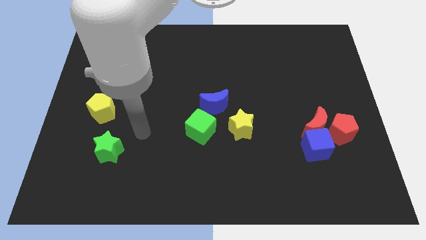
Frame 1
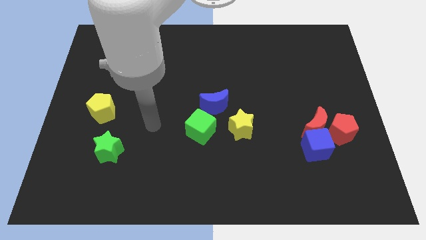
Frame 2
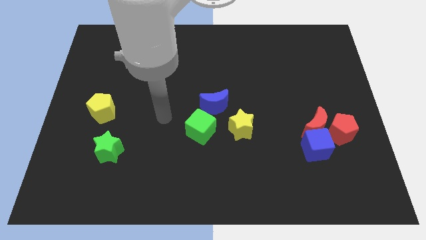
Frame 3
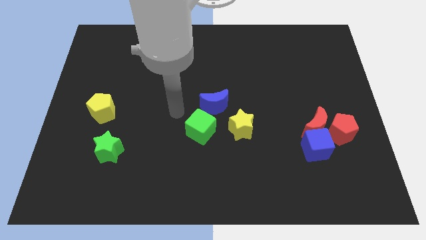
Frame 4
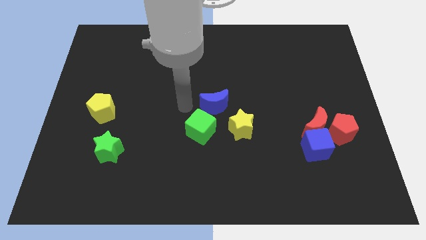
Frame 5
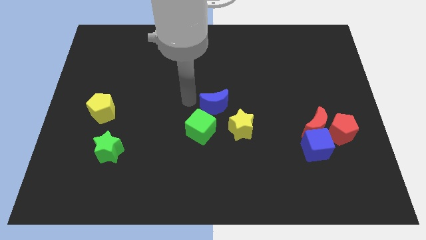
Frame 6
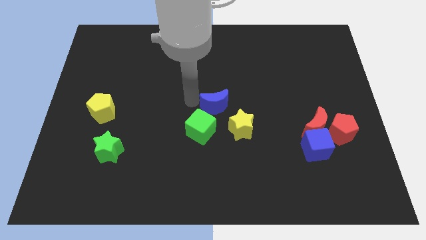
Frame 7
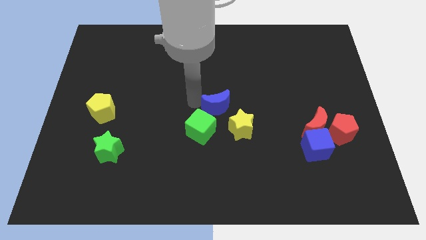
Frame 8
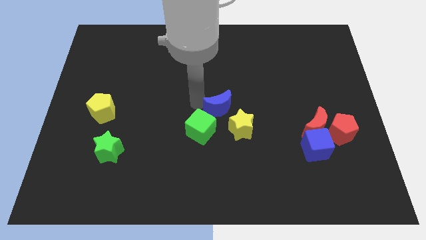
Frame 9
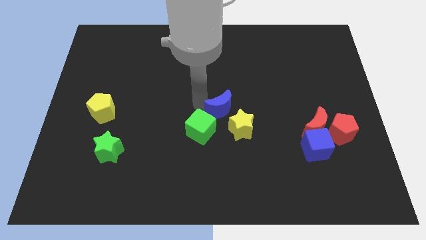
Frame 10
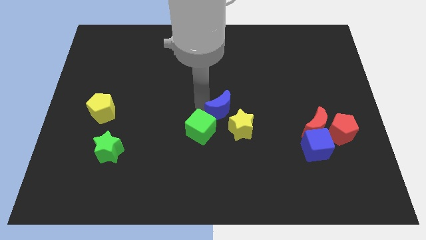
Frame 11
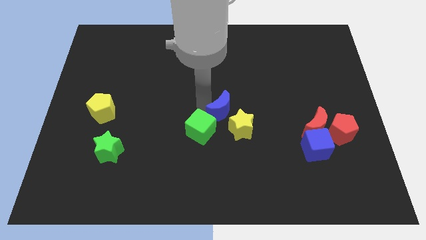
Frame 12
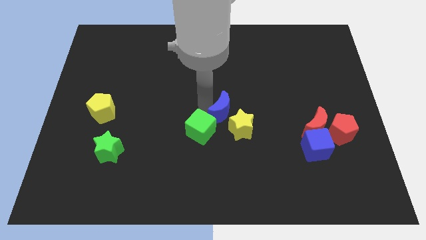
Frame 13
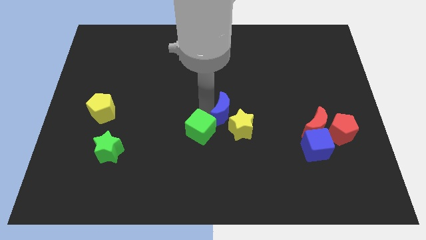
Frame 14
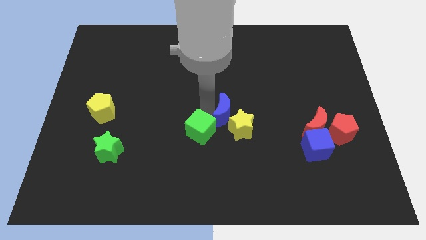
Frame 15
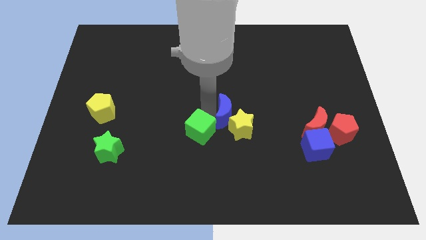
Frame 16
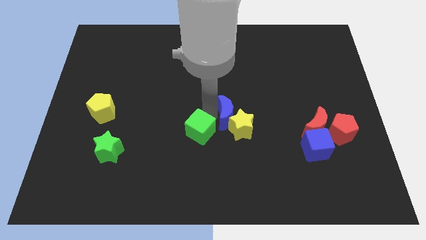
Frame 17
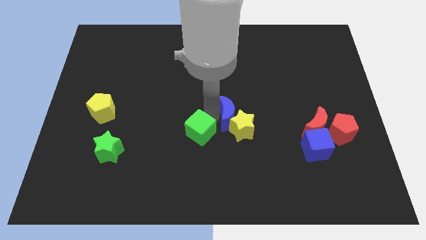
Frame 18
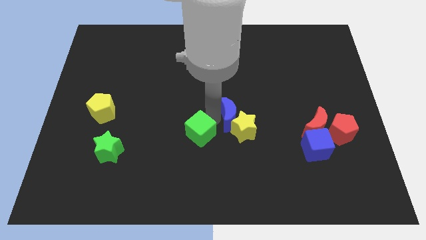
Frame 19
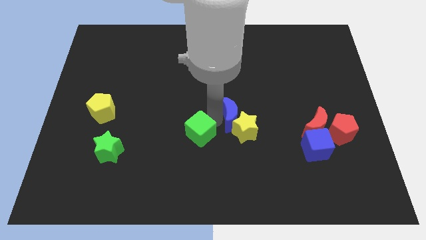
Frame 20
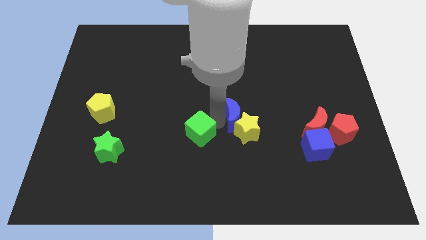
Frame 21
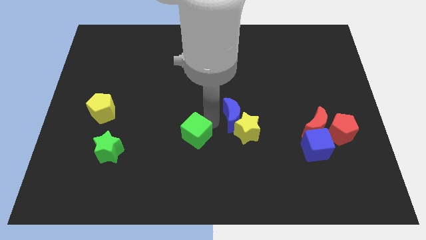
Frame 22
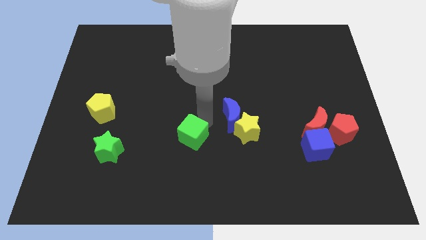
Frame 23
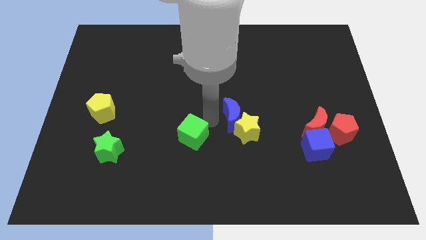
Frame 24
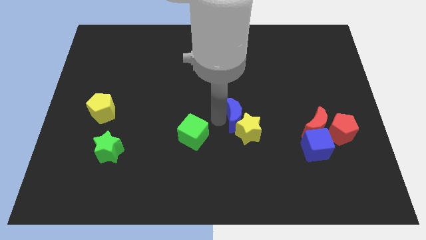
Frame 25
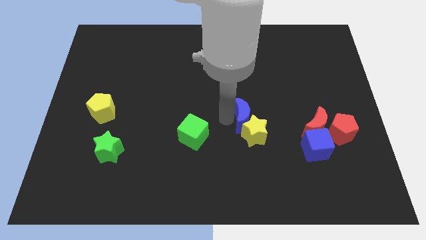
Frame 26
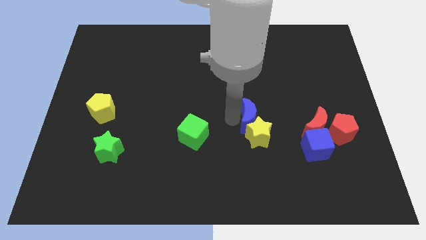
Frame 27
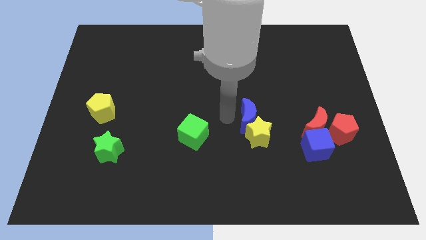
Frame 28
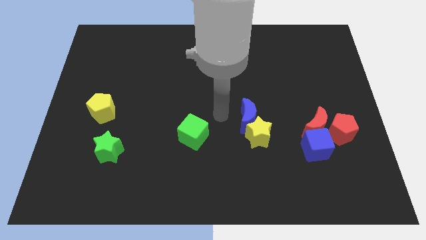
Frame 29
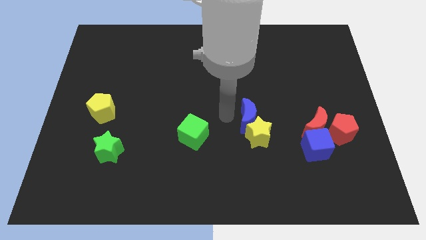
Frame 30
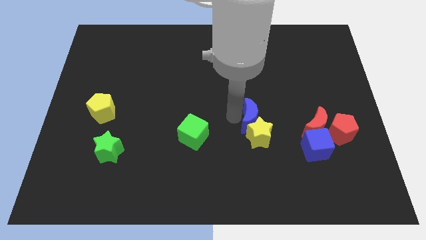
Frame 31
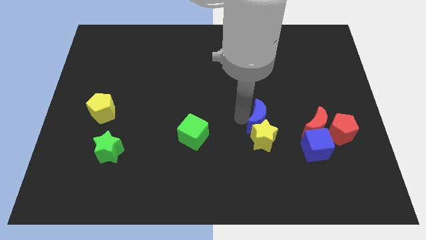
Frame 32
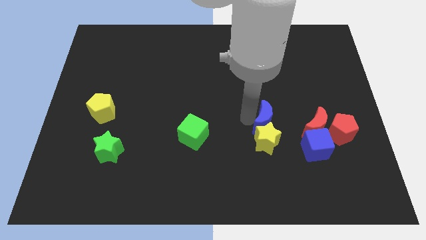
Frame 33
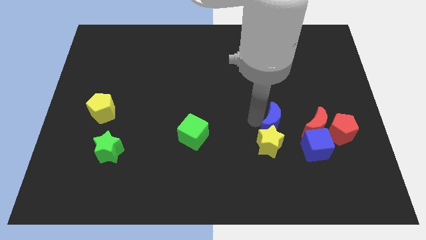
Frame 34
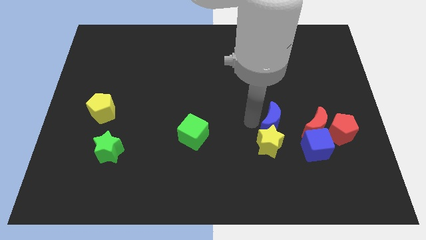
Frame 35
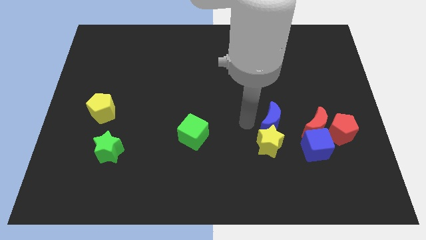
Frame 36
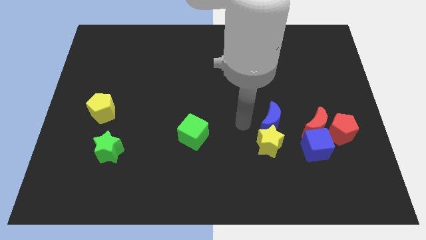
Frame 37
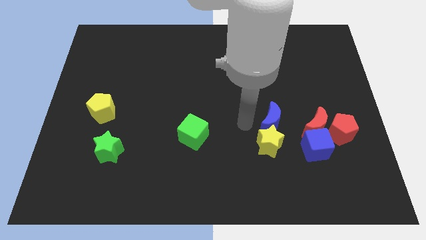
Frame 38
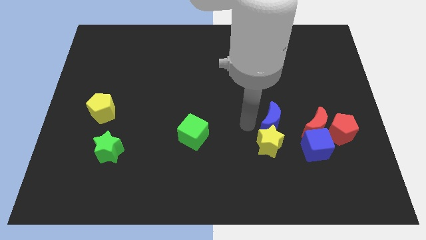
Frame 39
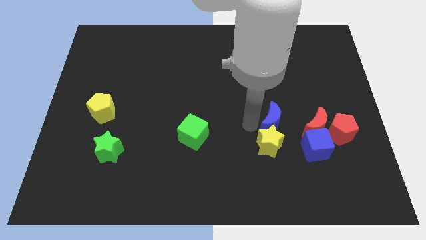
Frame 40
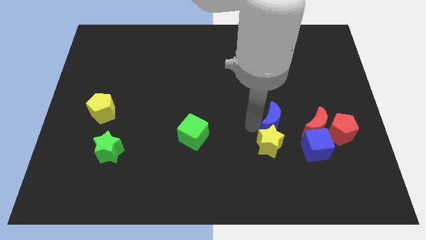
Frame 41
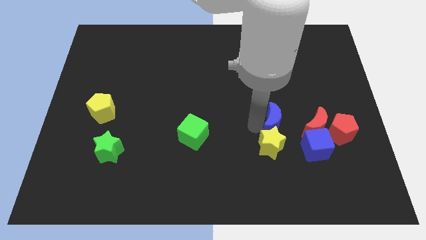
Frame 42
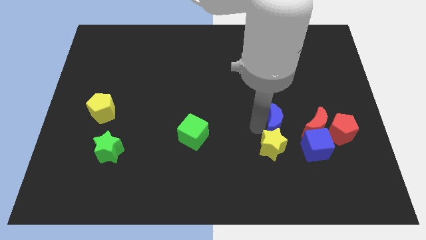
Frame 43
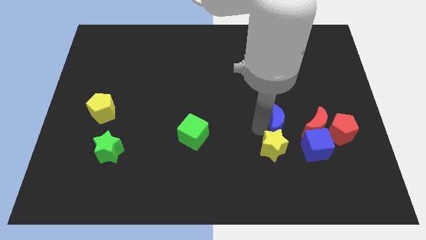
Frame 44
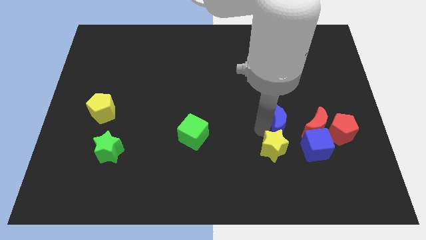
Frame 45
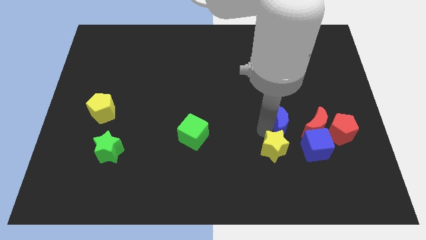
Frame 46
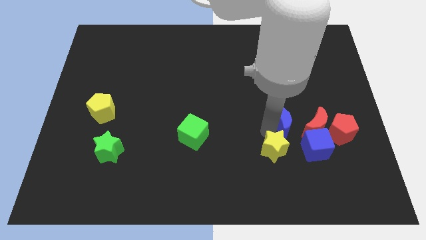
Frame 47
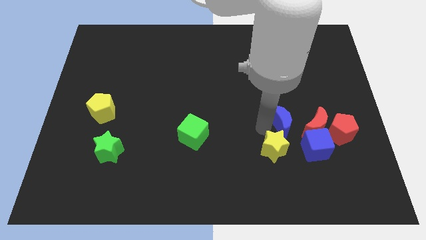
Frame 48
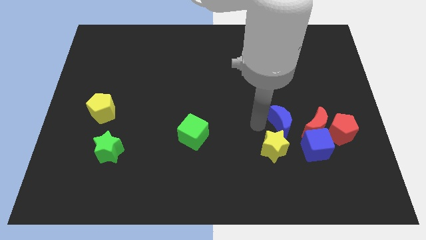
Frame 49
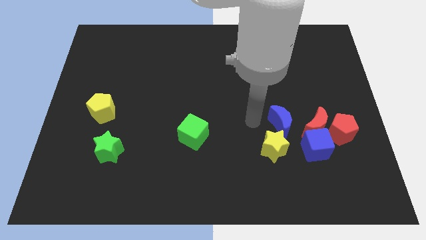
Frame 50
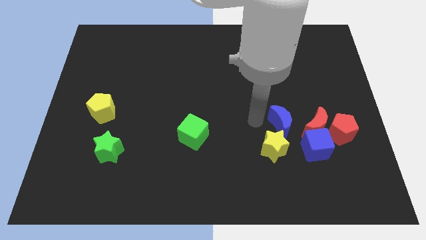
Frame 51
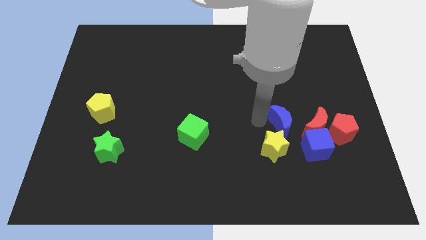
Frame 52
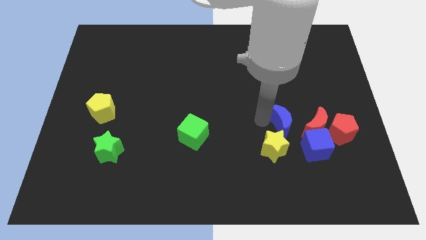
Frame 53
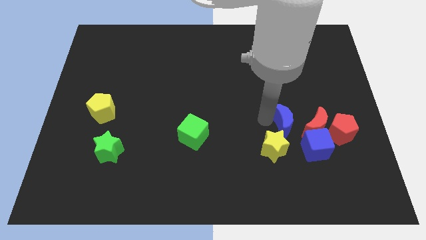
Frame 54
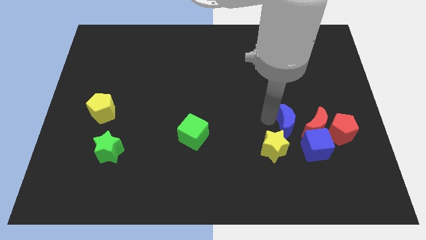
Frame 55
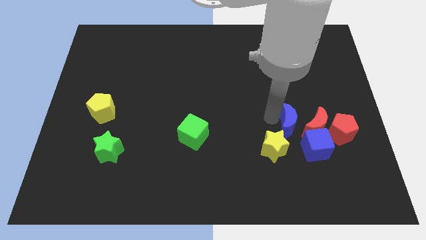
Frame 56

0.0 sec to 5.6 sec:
push the blue moon to the red moon

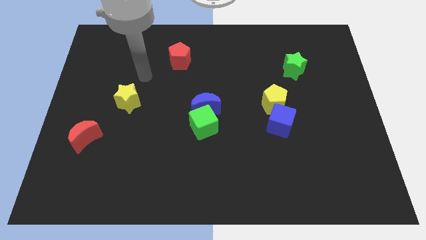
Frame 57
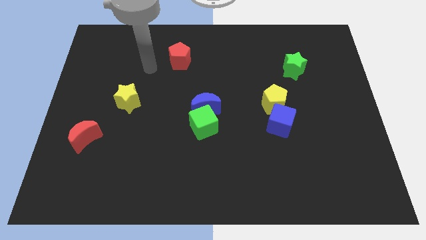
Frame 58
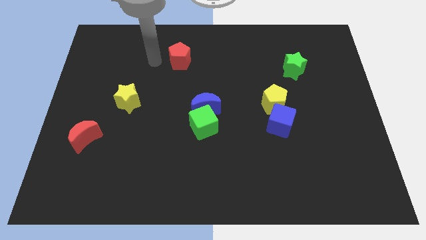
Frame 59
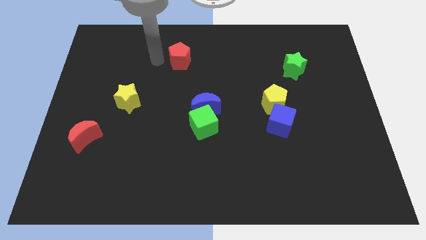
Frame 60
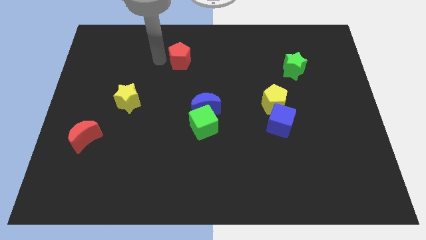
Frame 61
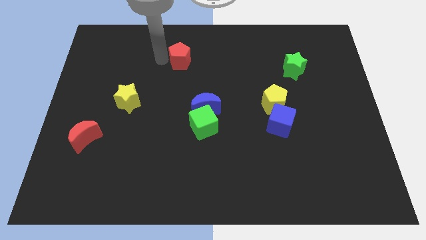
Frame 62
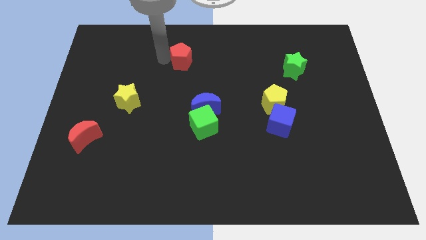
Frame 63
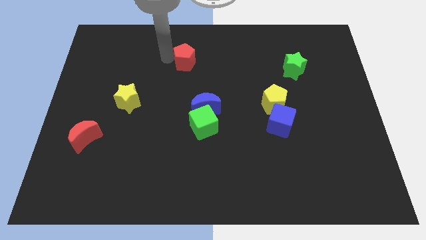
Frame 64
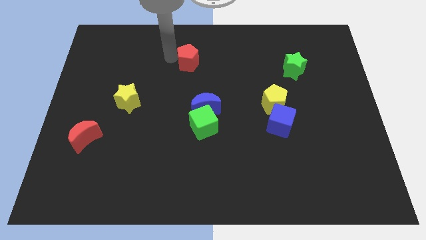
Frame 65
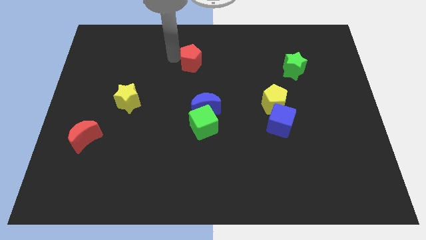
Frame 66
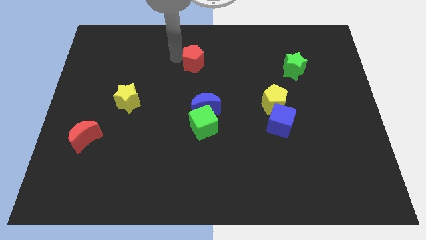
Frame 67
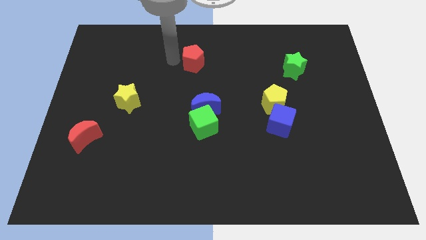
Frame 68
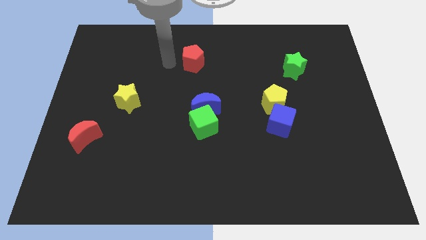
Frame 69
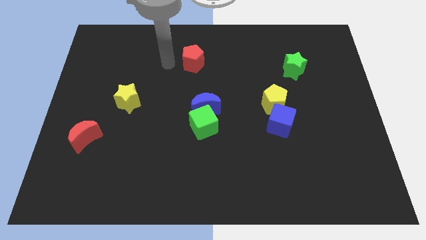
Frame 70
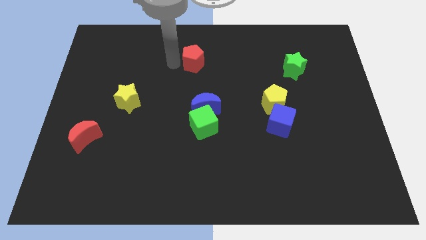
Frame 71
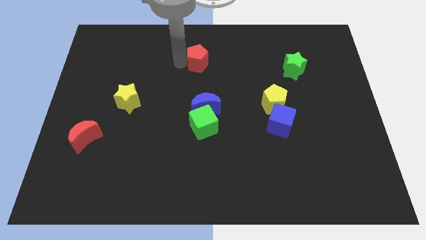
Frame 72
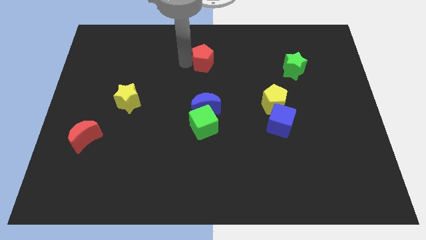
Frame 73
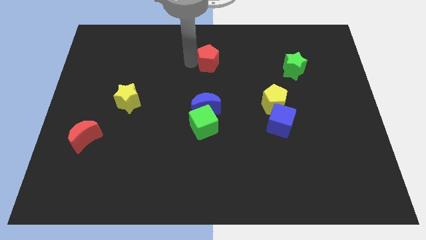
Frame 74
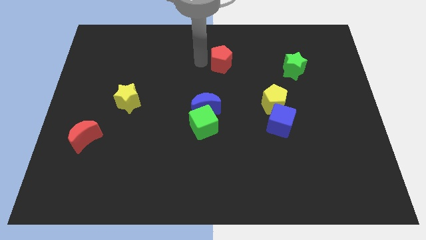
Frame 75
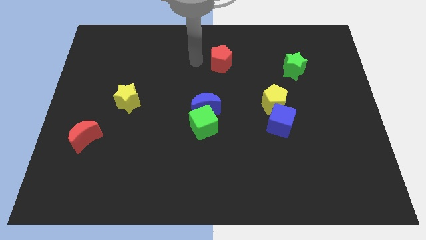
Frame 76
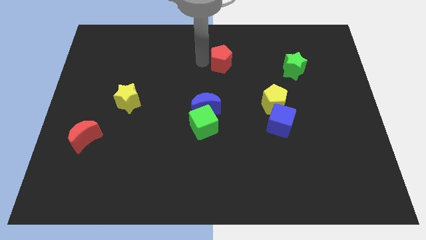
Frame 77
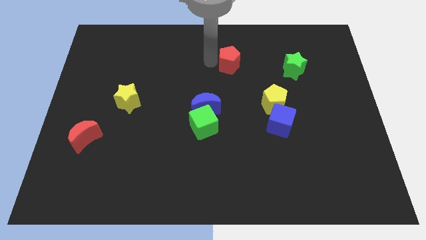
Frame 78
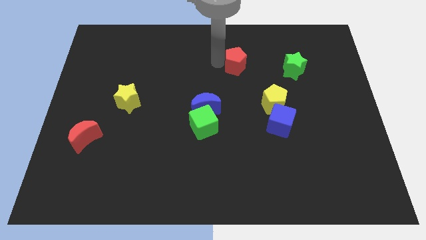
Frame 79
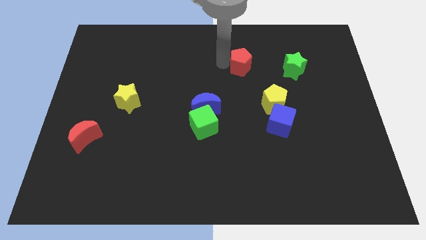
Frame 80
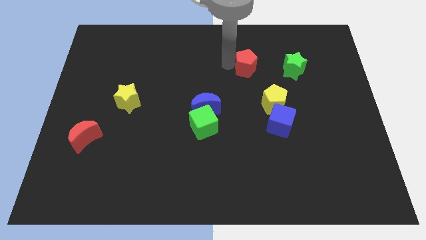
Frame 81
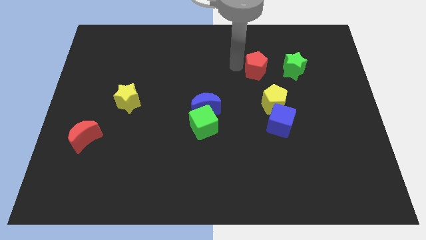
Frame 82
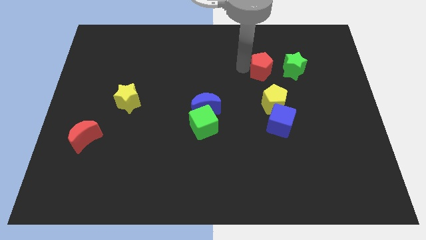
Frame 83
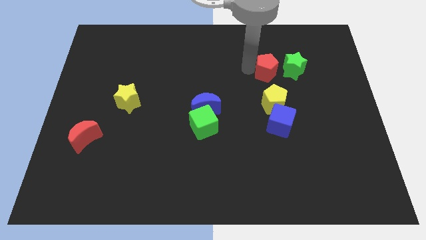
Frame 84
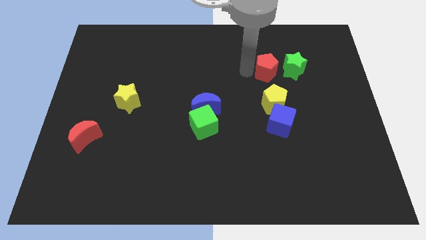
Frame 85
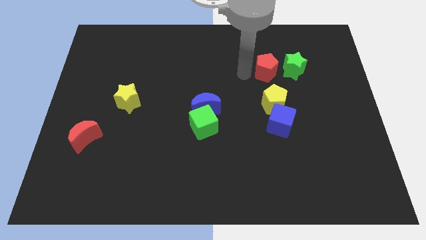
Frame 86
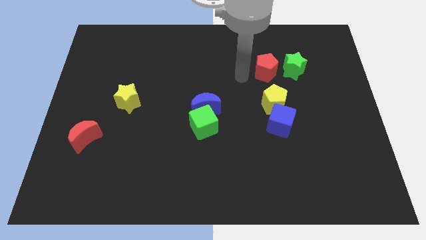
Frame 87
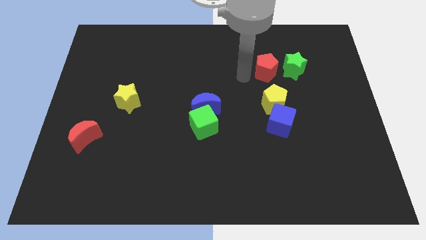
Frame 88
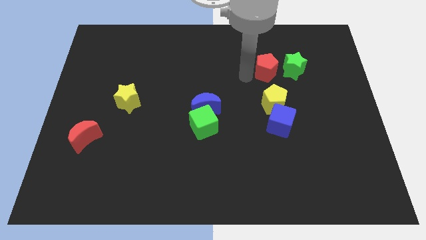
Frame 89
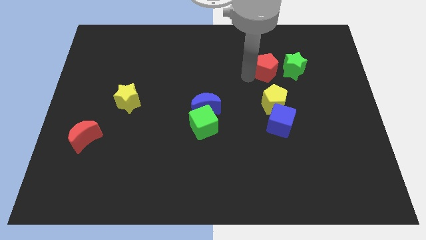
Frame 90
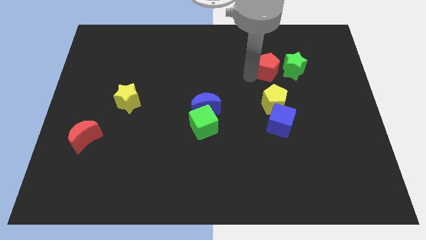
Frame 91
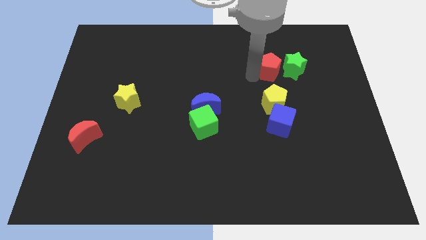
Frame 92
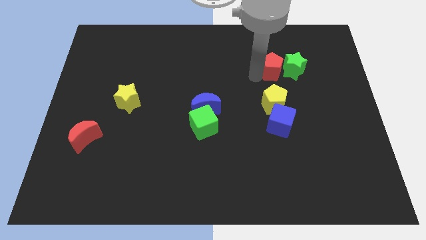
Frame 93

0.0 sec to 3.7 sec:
move the red pentagon to the green star
